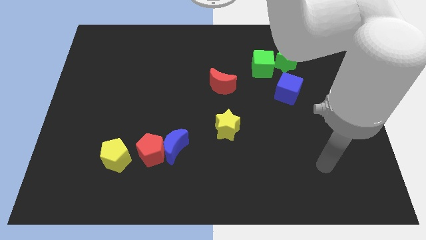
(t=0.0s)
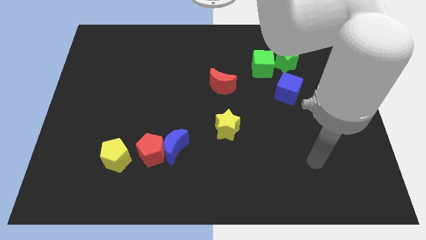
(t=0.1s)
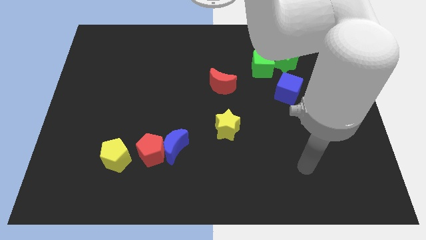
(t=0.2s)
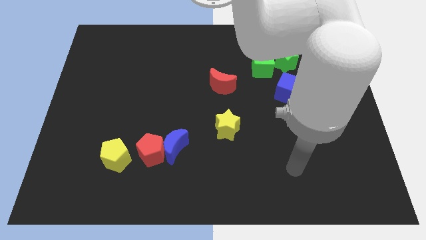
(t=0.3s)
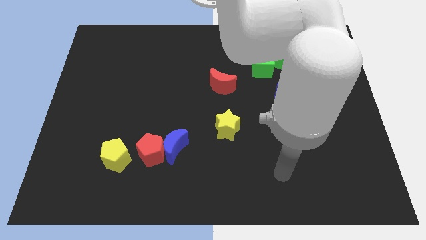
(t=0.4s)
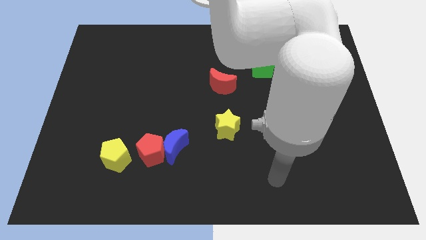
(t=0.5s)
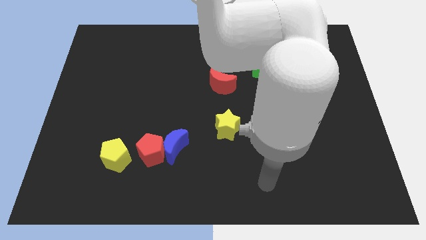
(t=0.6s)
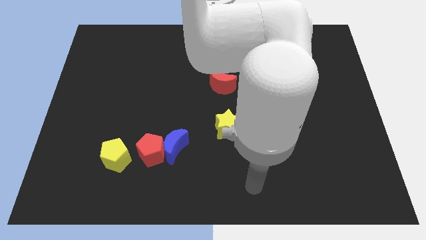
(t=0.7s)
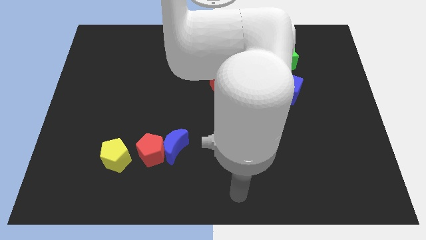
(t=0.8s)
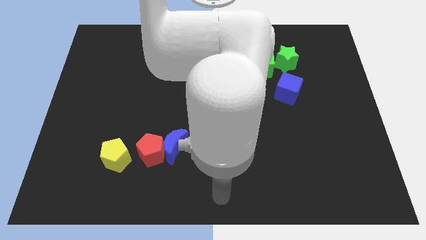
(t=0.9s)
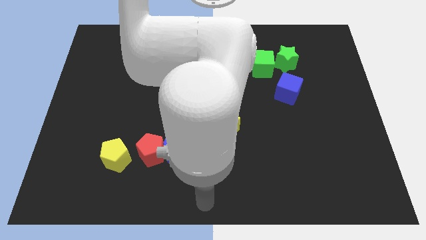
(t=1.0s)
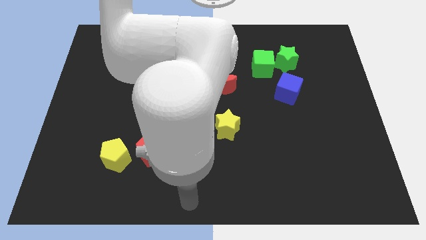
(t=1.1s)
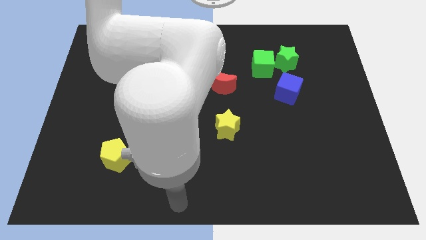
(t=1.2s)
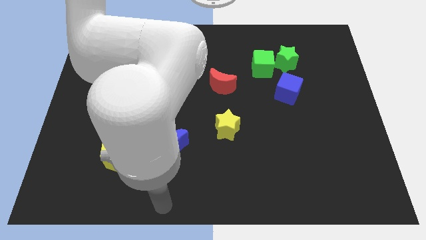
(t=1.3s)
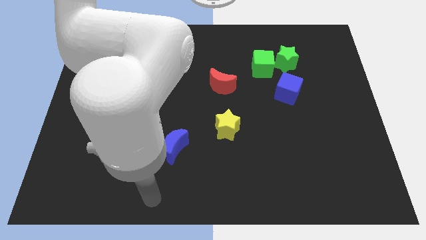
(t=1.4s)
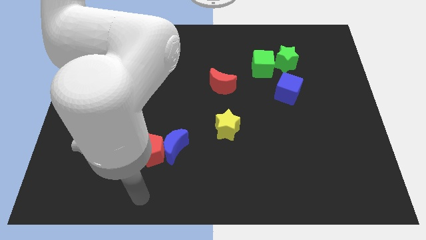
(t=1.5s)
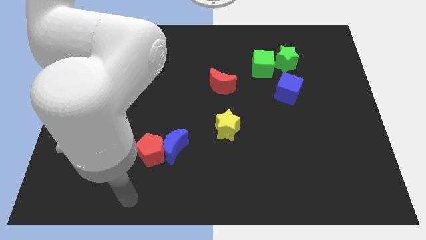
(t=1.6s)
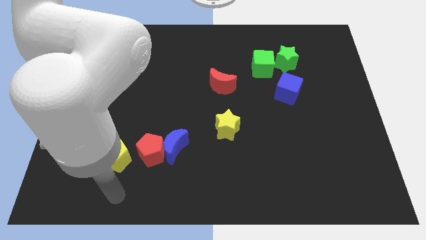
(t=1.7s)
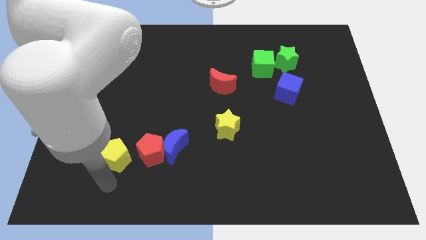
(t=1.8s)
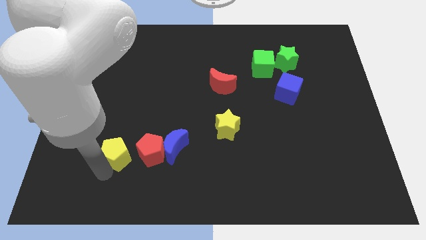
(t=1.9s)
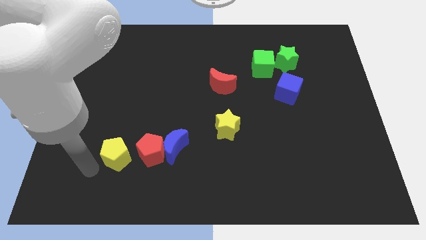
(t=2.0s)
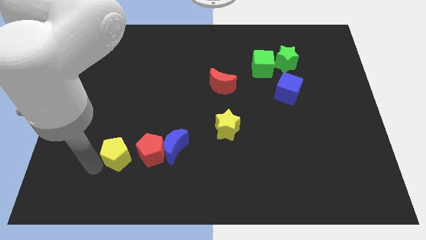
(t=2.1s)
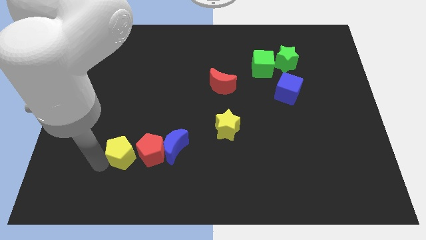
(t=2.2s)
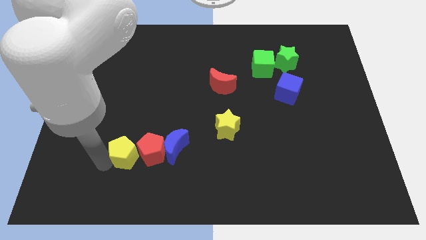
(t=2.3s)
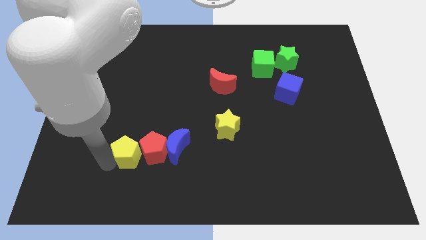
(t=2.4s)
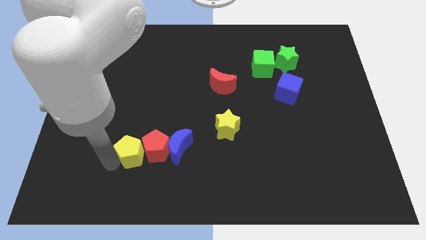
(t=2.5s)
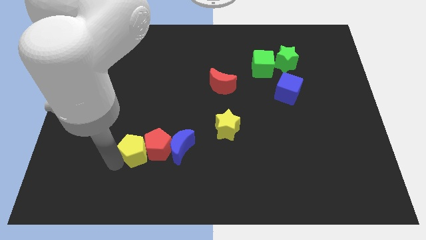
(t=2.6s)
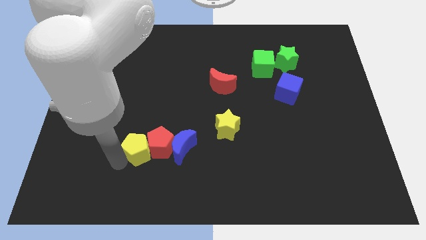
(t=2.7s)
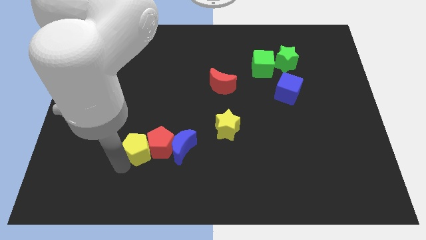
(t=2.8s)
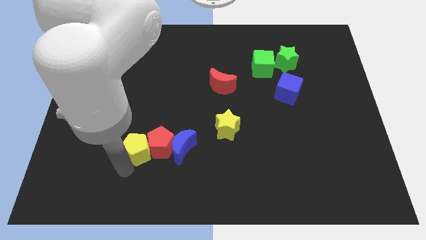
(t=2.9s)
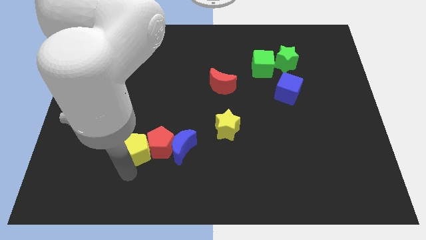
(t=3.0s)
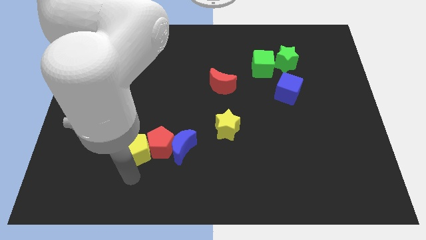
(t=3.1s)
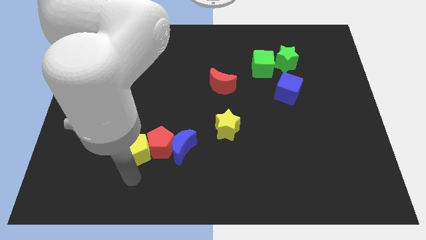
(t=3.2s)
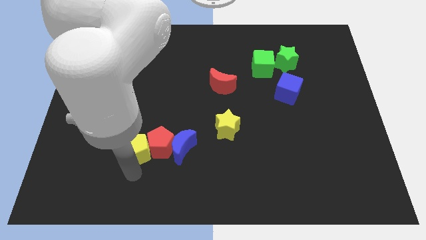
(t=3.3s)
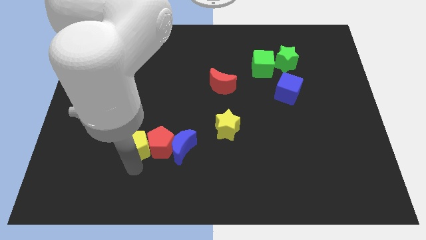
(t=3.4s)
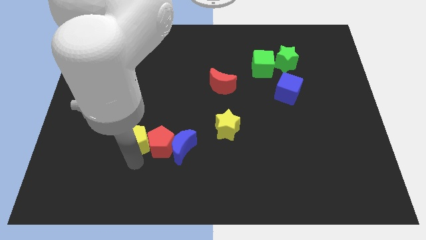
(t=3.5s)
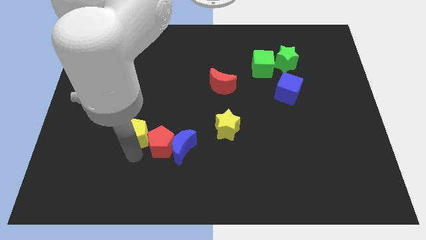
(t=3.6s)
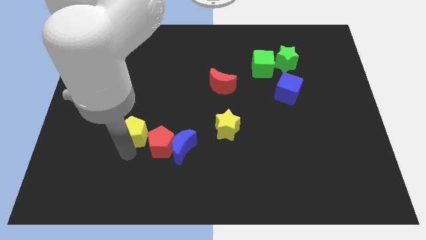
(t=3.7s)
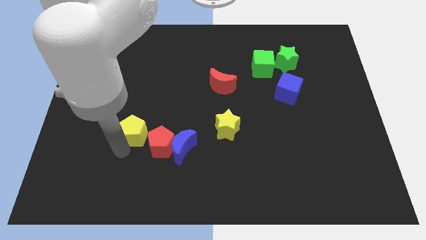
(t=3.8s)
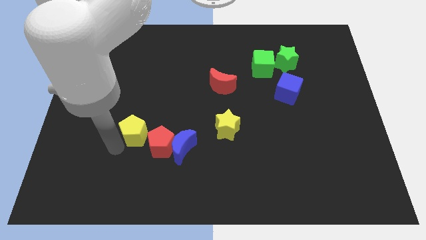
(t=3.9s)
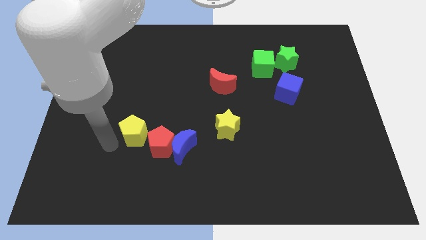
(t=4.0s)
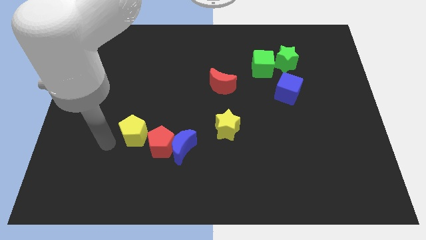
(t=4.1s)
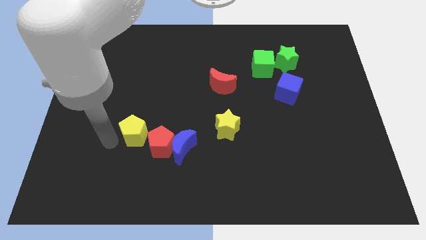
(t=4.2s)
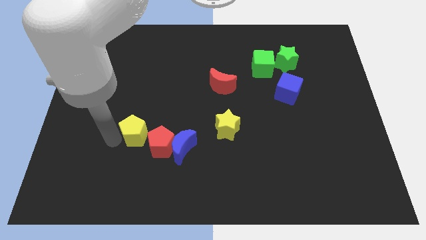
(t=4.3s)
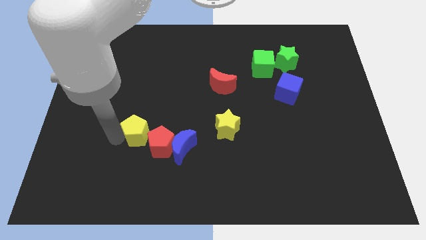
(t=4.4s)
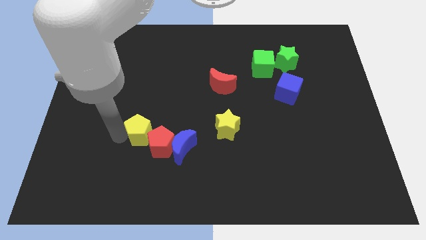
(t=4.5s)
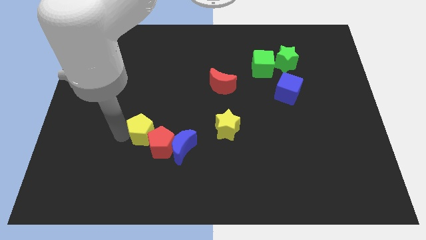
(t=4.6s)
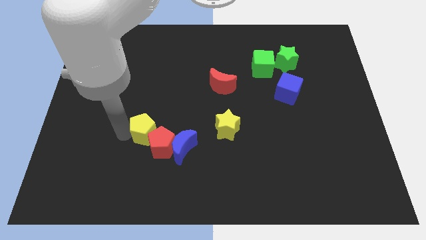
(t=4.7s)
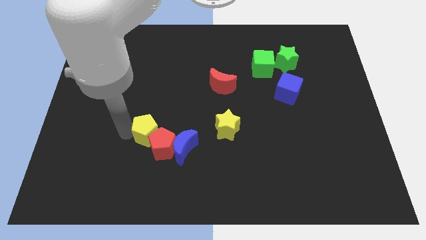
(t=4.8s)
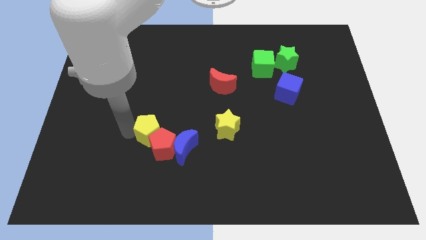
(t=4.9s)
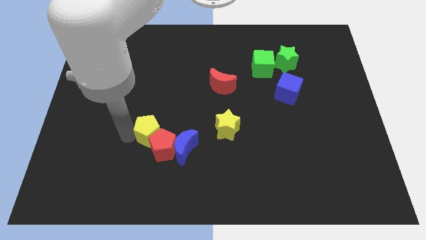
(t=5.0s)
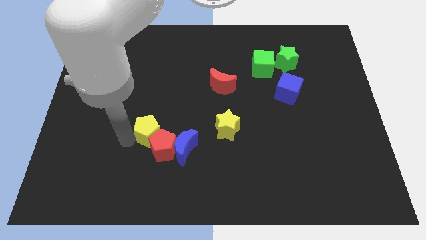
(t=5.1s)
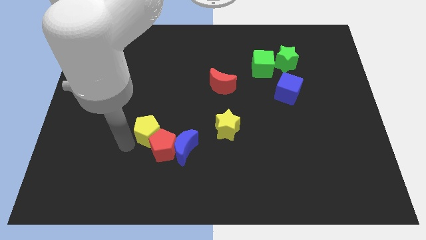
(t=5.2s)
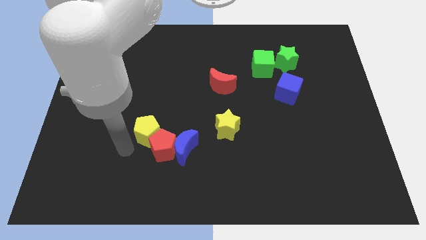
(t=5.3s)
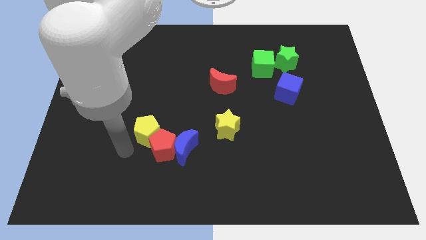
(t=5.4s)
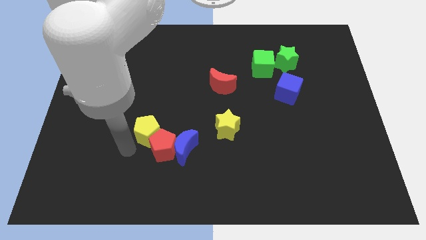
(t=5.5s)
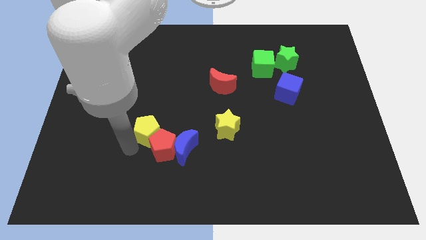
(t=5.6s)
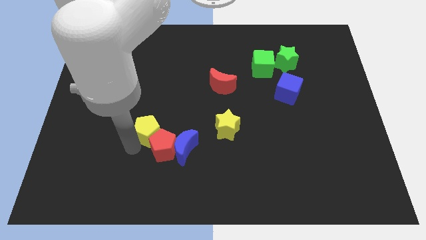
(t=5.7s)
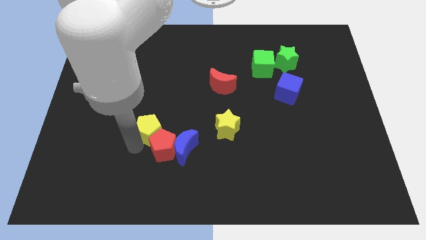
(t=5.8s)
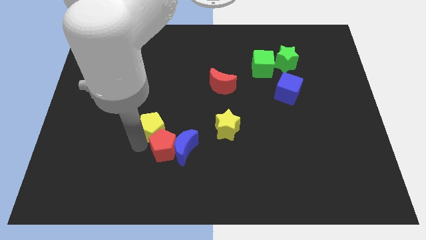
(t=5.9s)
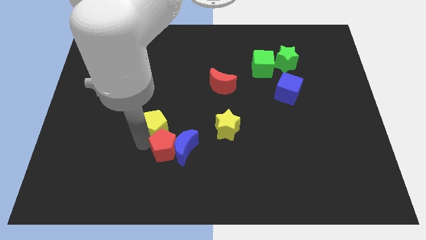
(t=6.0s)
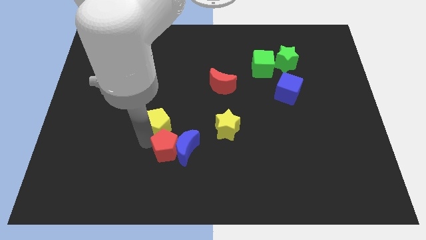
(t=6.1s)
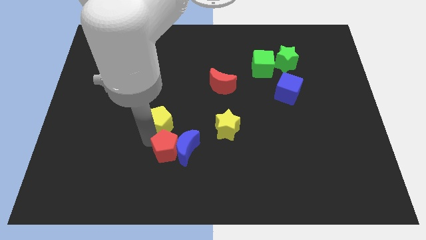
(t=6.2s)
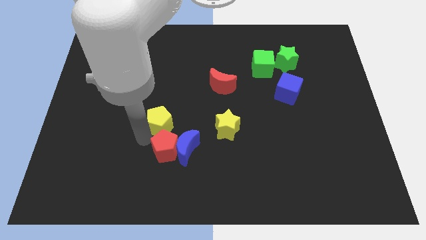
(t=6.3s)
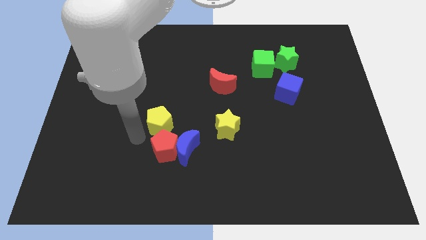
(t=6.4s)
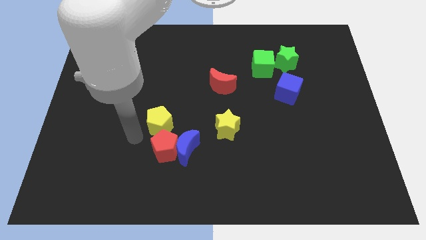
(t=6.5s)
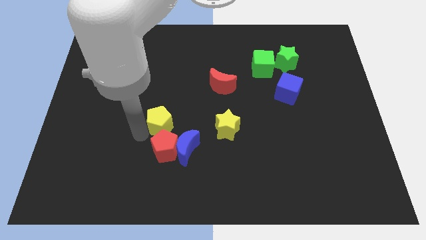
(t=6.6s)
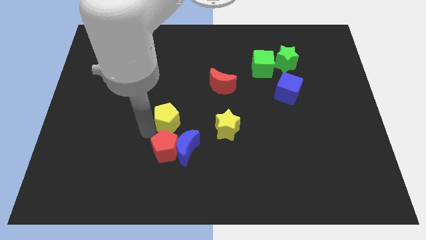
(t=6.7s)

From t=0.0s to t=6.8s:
put the yellow pentagon to the center

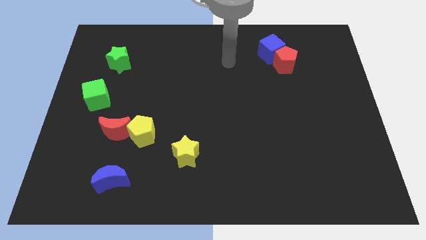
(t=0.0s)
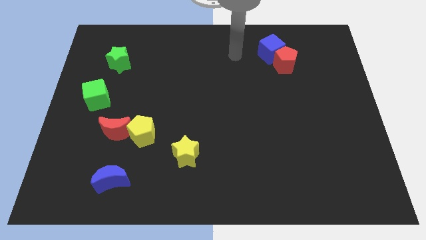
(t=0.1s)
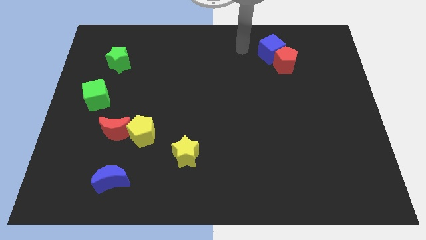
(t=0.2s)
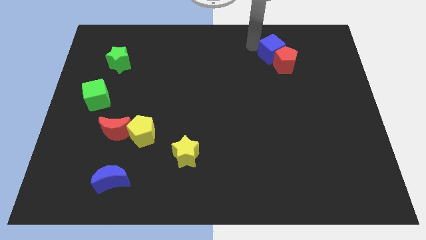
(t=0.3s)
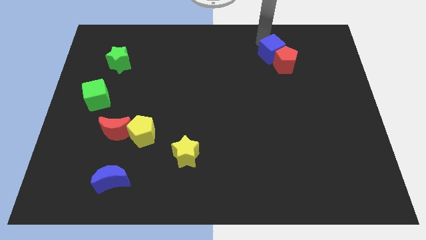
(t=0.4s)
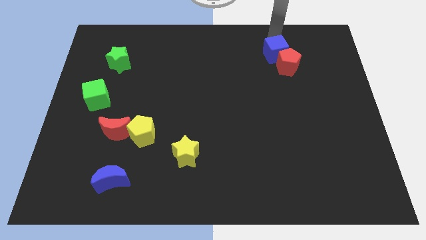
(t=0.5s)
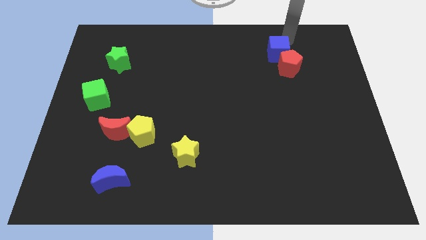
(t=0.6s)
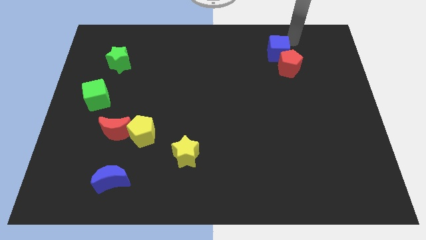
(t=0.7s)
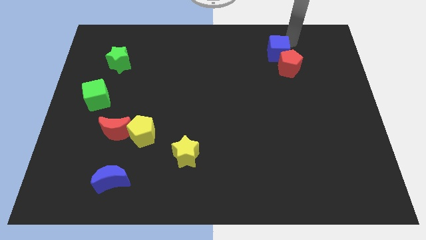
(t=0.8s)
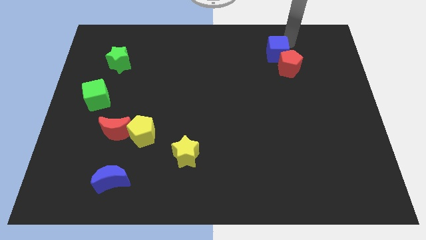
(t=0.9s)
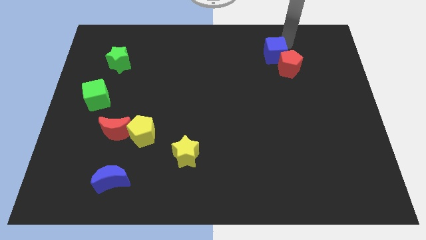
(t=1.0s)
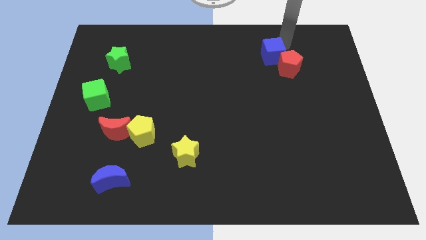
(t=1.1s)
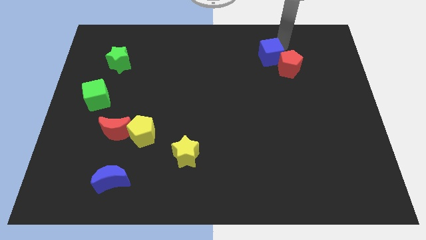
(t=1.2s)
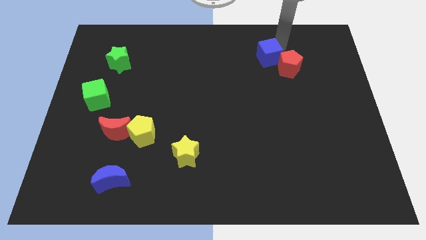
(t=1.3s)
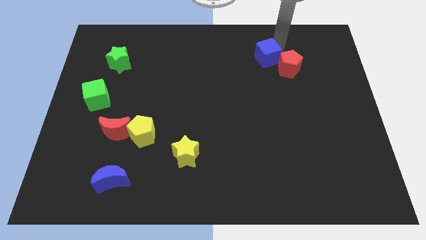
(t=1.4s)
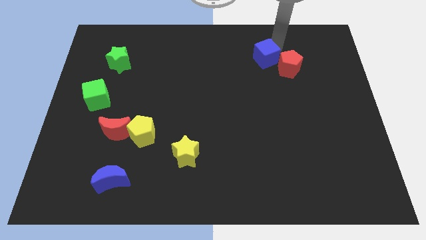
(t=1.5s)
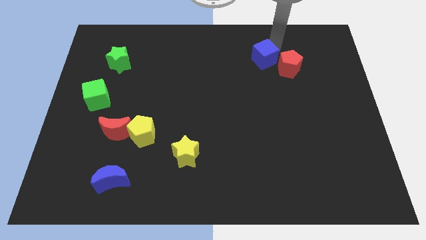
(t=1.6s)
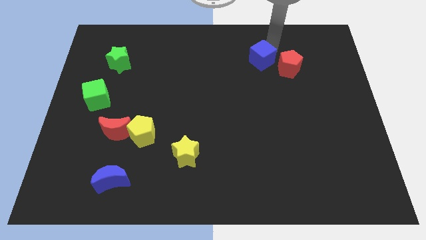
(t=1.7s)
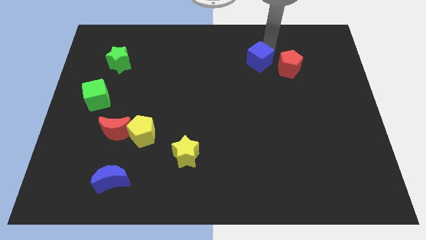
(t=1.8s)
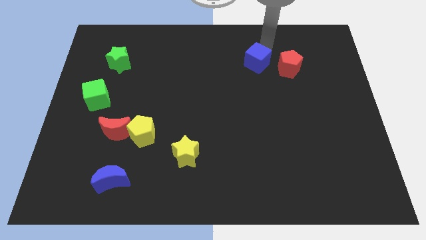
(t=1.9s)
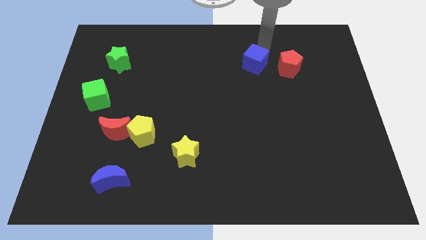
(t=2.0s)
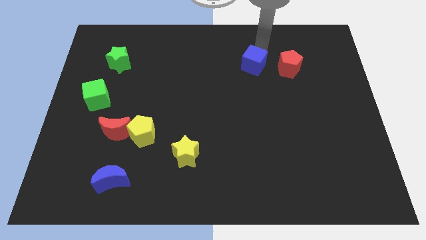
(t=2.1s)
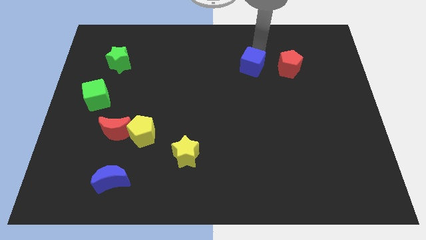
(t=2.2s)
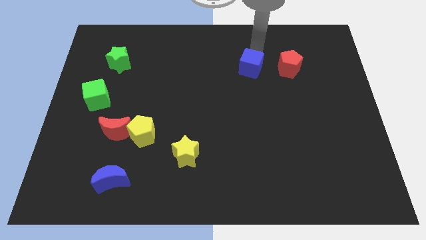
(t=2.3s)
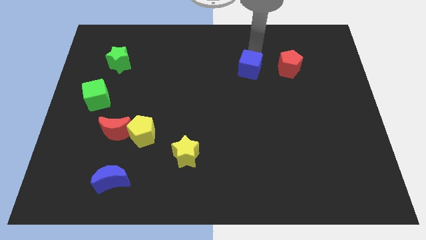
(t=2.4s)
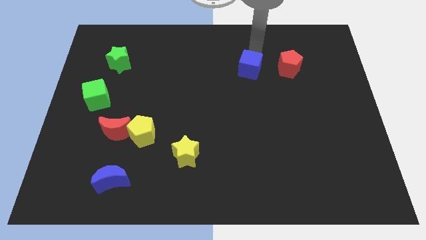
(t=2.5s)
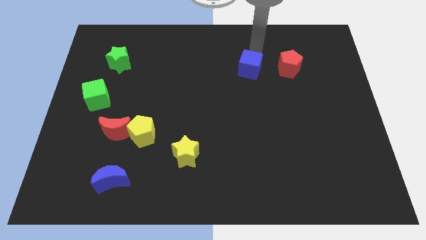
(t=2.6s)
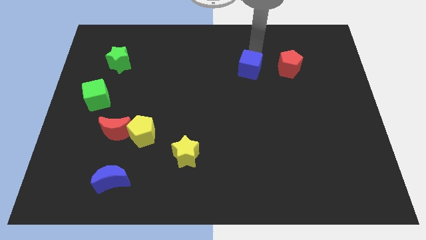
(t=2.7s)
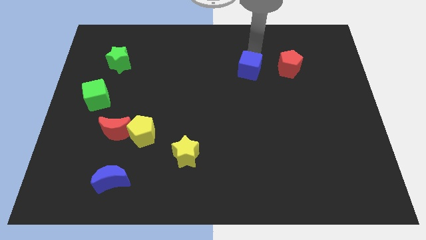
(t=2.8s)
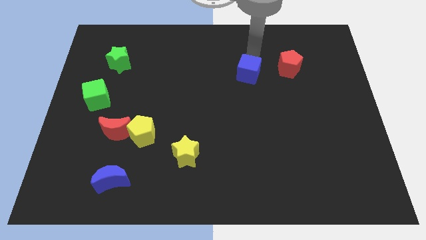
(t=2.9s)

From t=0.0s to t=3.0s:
slide the blue cube to the middle
